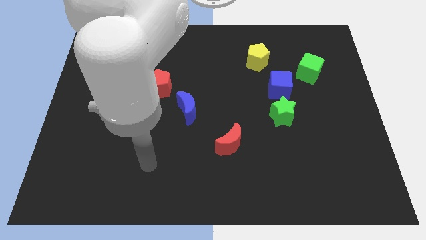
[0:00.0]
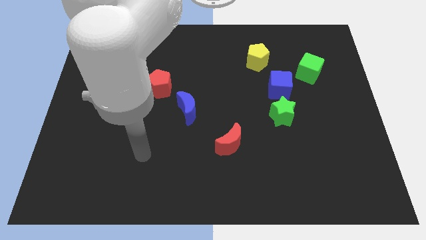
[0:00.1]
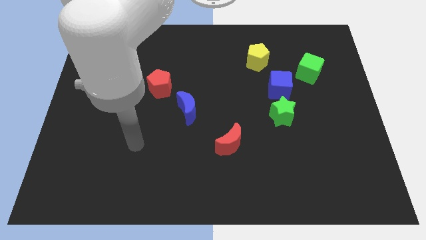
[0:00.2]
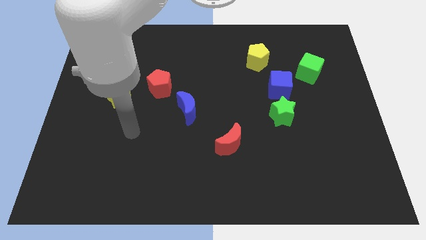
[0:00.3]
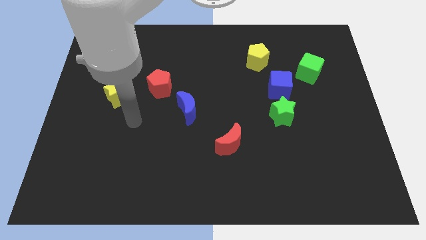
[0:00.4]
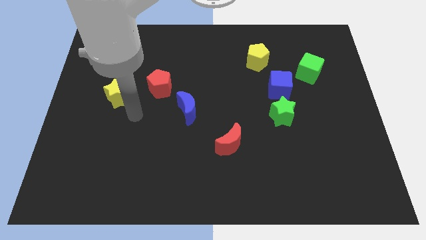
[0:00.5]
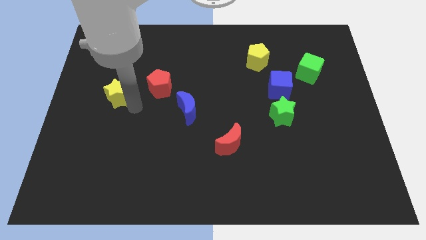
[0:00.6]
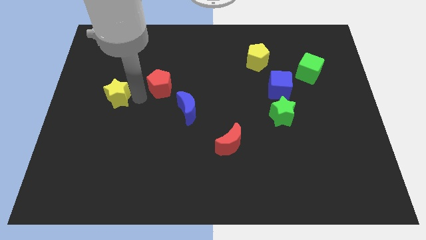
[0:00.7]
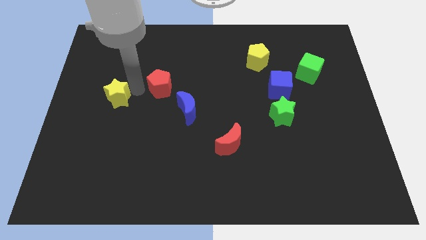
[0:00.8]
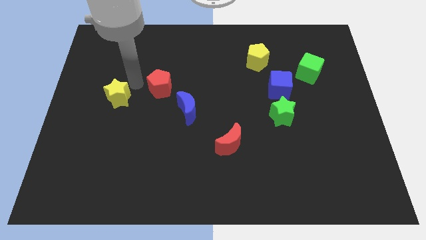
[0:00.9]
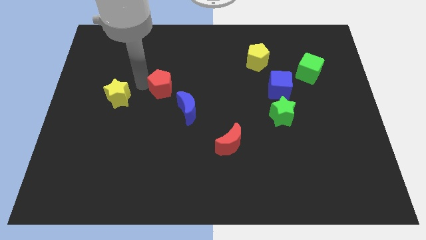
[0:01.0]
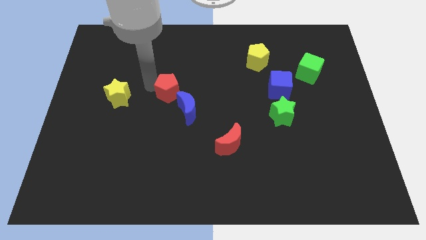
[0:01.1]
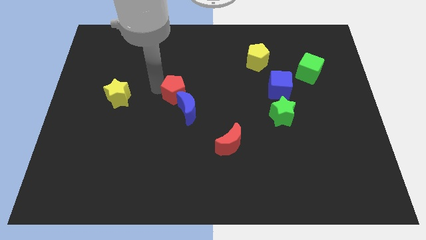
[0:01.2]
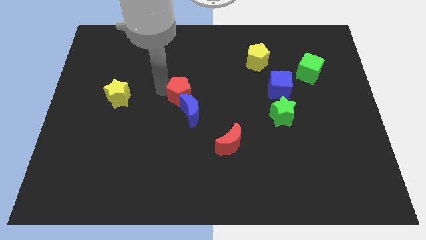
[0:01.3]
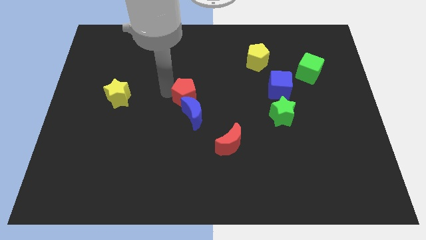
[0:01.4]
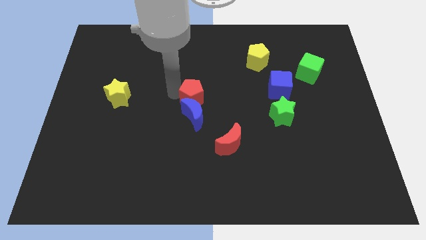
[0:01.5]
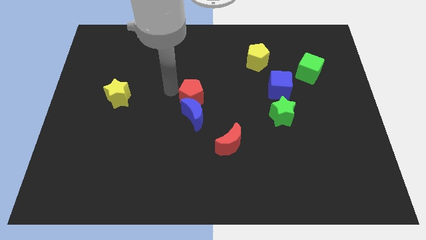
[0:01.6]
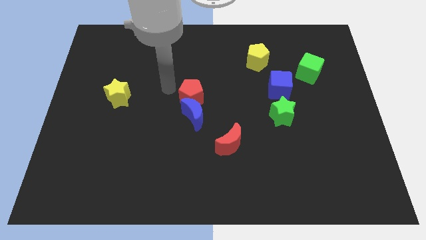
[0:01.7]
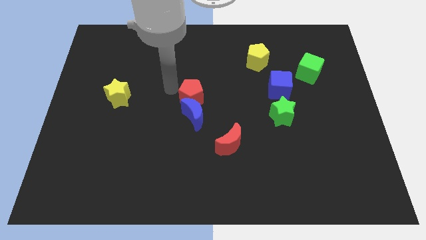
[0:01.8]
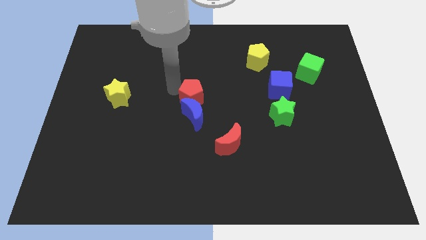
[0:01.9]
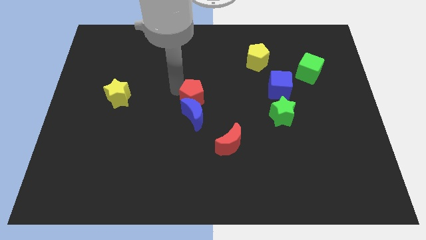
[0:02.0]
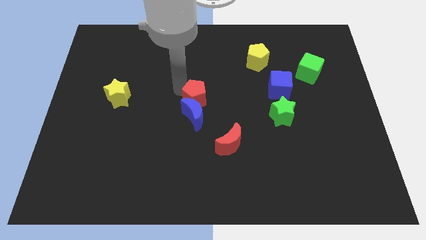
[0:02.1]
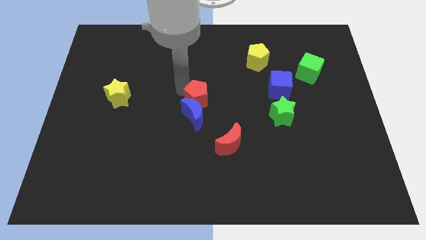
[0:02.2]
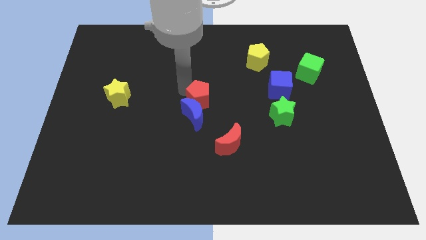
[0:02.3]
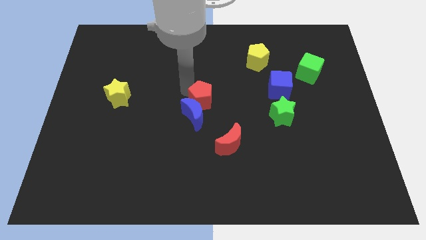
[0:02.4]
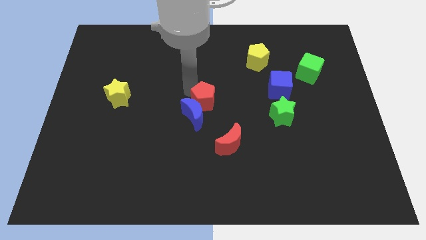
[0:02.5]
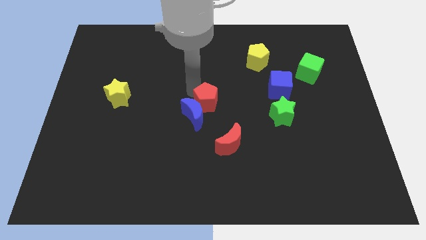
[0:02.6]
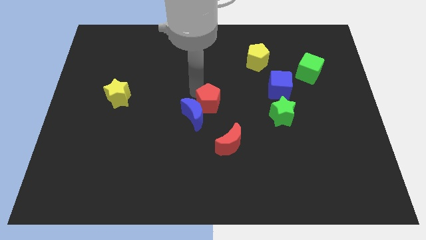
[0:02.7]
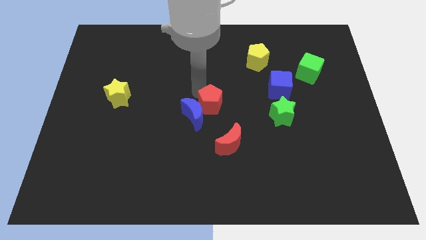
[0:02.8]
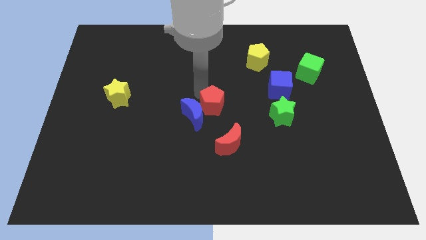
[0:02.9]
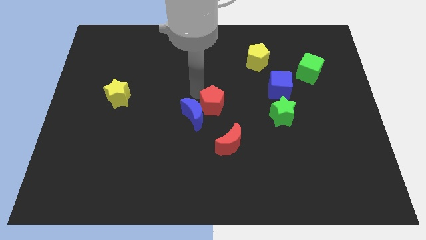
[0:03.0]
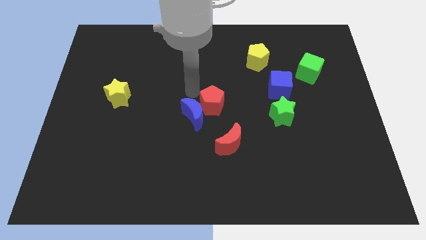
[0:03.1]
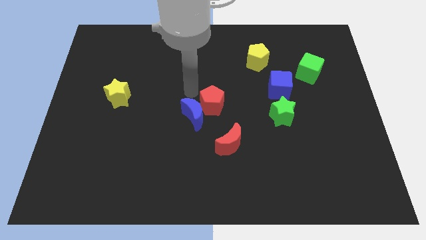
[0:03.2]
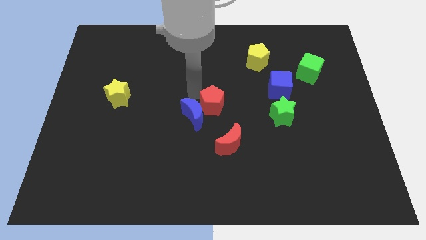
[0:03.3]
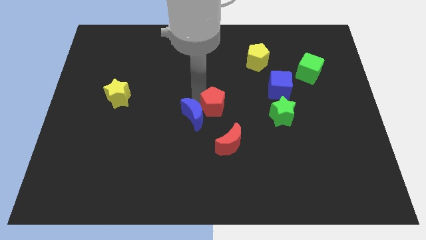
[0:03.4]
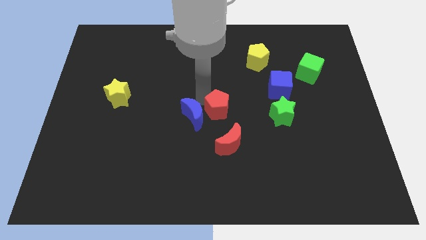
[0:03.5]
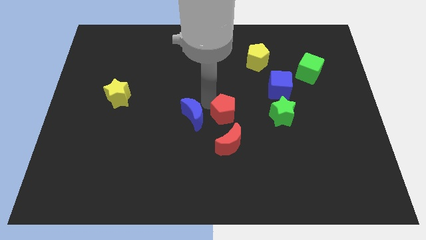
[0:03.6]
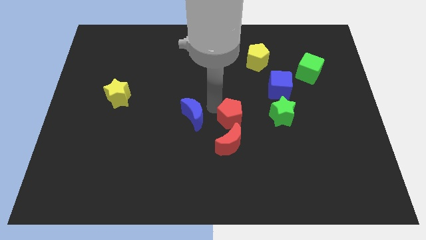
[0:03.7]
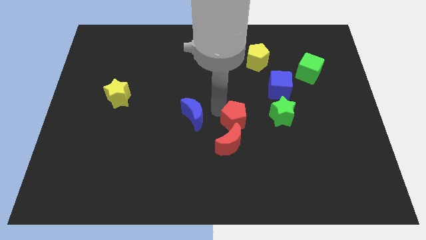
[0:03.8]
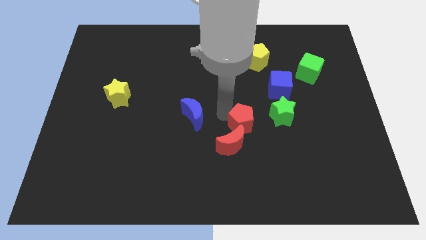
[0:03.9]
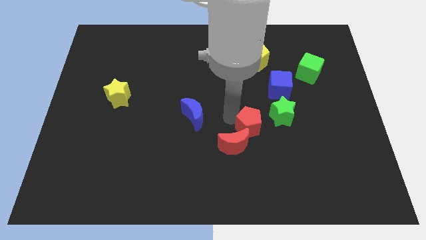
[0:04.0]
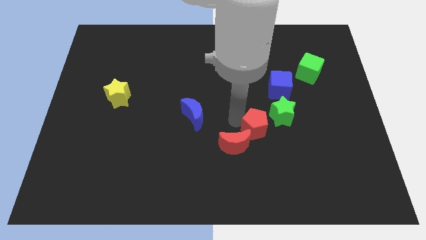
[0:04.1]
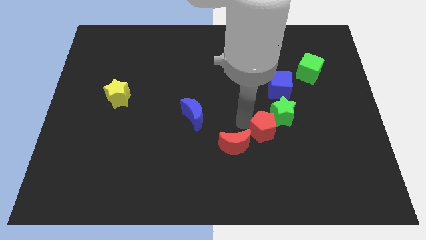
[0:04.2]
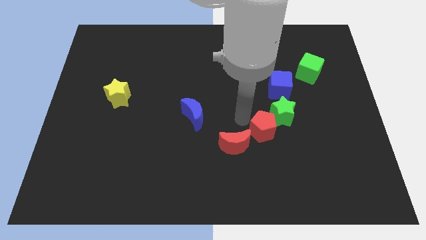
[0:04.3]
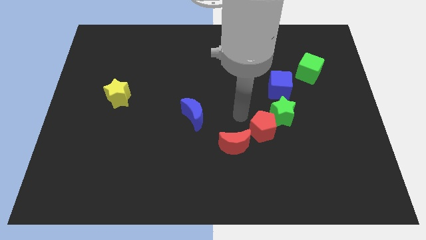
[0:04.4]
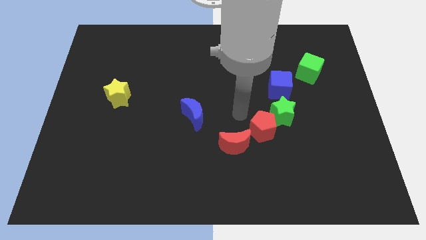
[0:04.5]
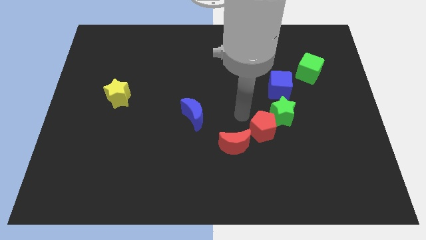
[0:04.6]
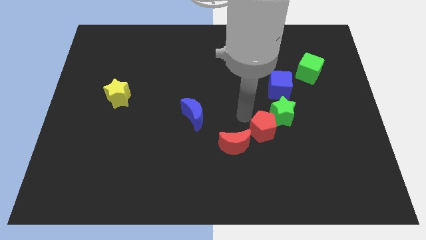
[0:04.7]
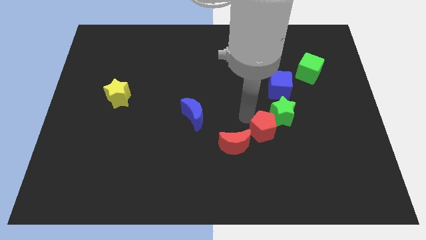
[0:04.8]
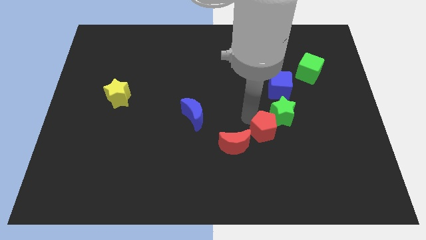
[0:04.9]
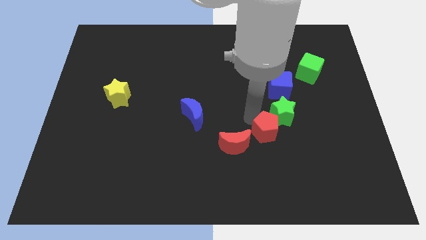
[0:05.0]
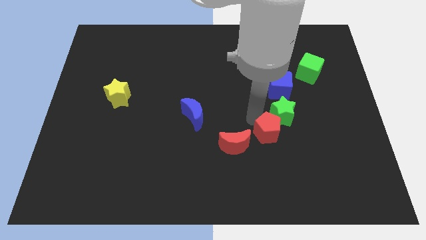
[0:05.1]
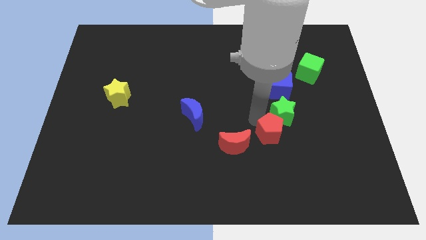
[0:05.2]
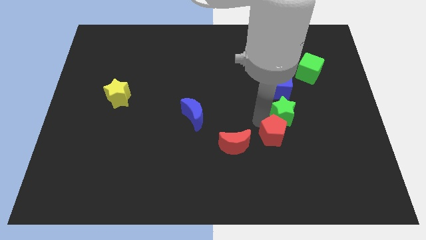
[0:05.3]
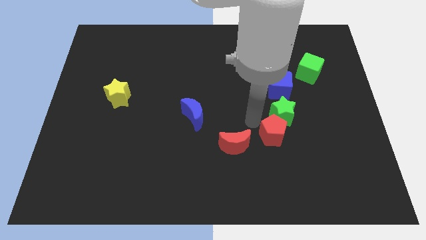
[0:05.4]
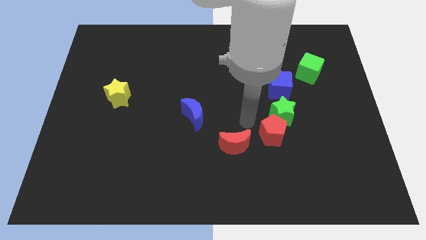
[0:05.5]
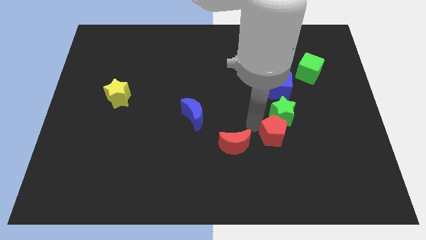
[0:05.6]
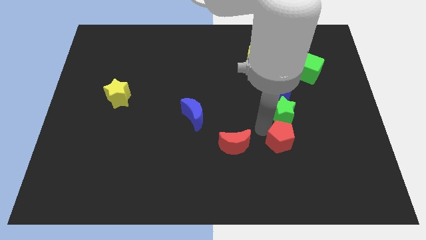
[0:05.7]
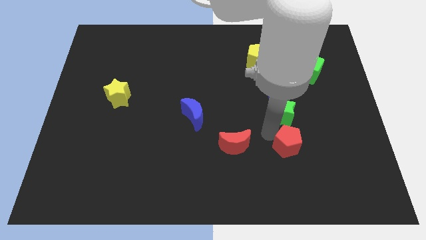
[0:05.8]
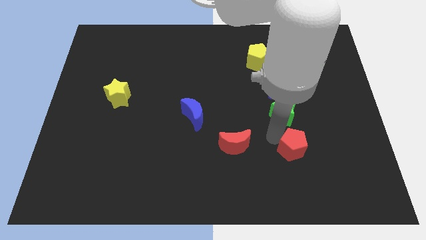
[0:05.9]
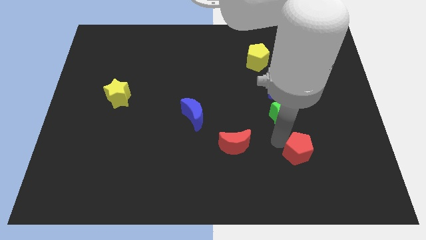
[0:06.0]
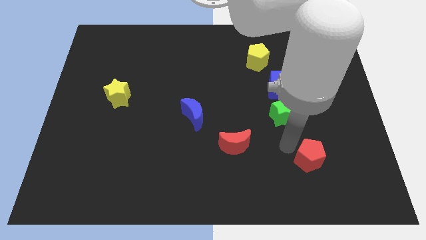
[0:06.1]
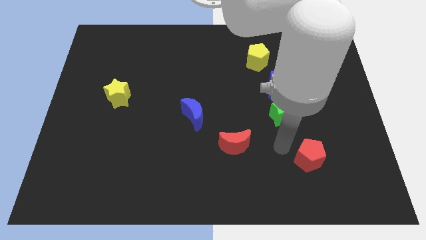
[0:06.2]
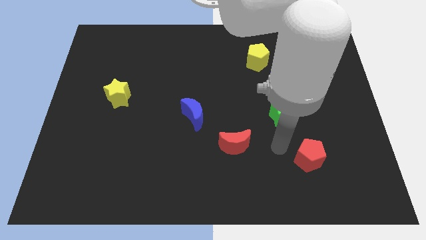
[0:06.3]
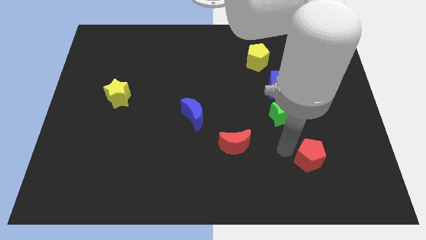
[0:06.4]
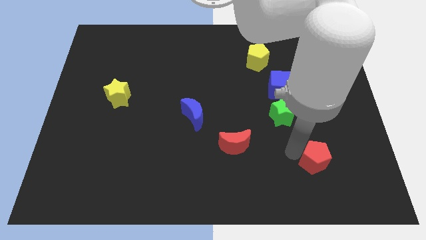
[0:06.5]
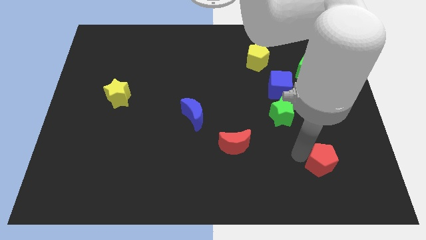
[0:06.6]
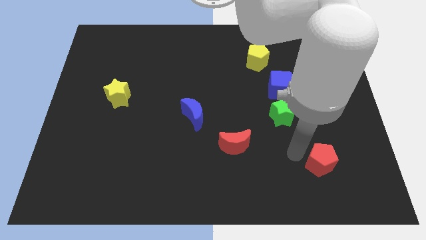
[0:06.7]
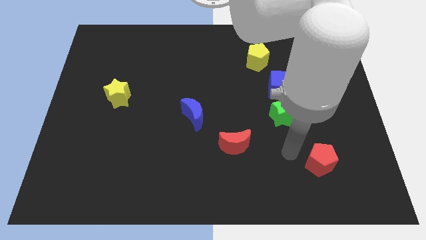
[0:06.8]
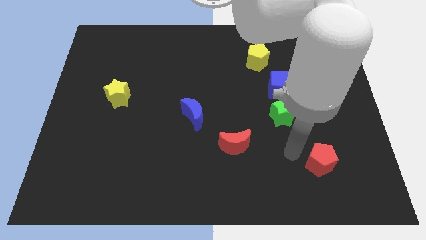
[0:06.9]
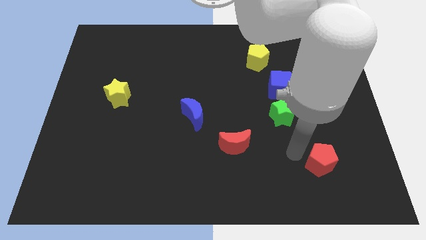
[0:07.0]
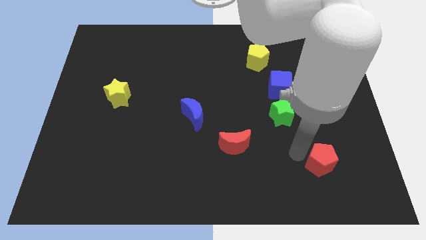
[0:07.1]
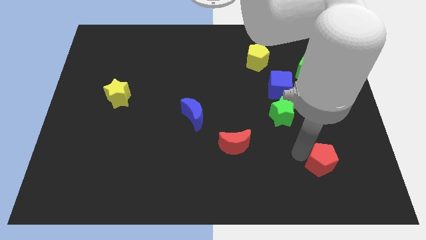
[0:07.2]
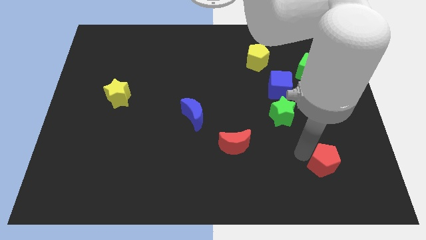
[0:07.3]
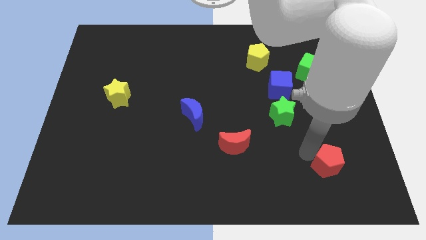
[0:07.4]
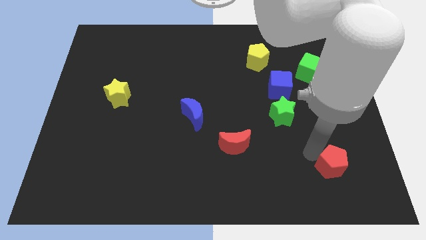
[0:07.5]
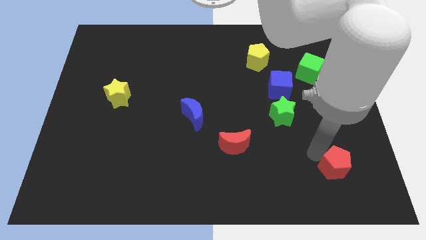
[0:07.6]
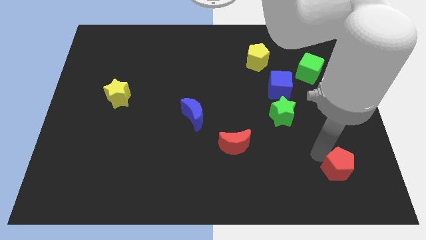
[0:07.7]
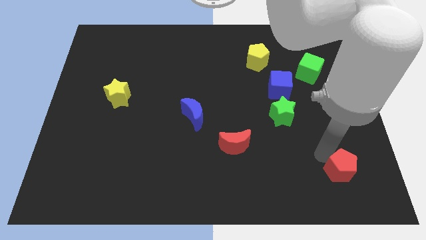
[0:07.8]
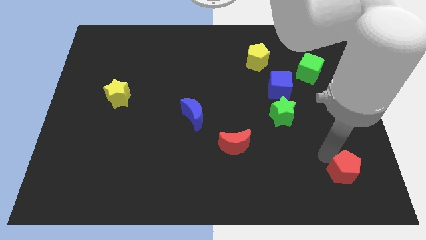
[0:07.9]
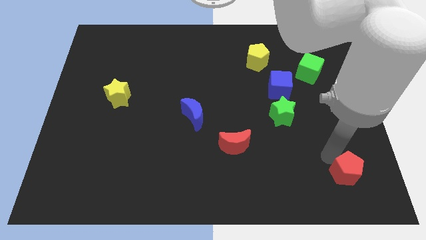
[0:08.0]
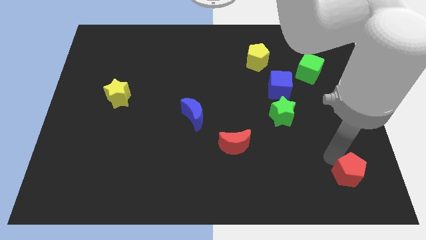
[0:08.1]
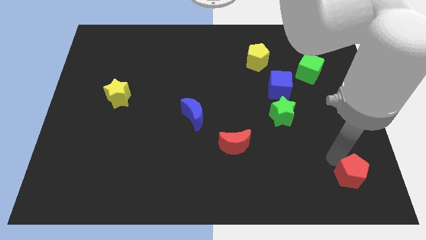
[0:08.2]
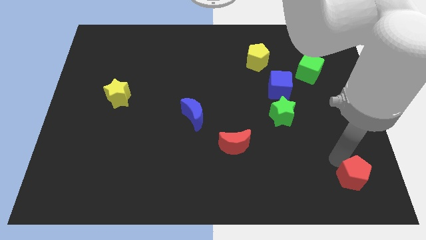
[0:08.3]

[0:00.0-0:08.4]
push the red pentagon to the bottom right corner
